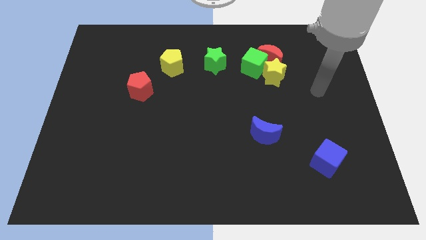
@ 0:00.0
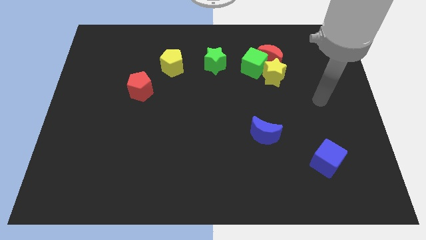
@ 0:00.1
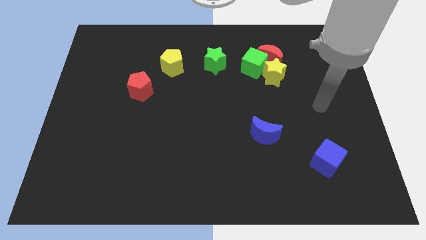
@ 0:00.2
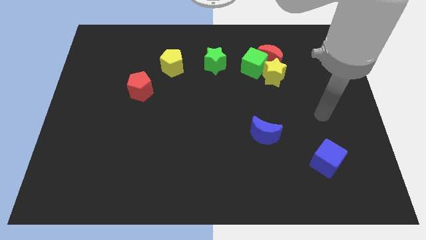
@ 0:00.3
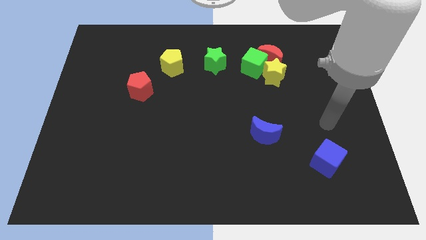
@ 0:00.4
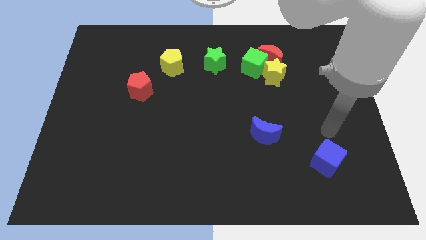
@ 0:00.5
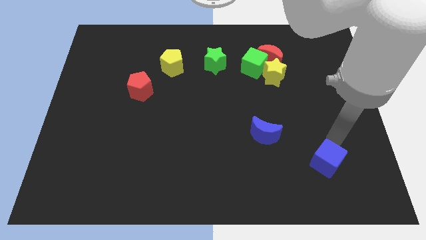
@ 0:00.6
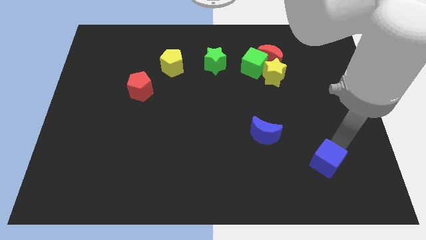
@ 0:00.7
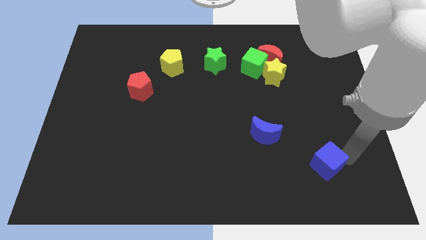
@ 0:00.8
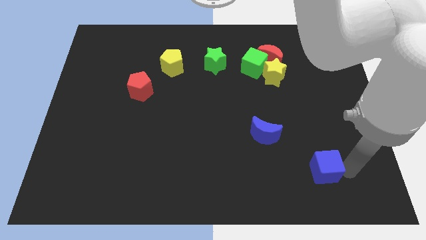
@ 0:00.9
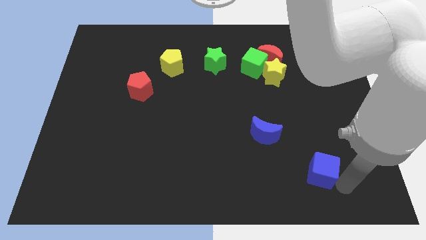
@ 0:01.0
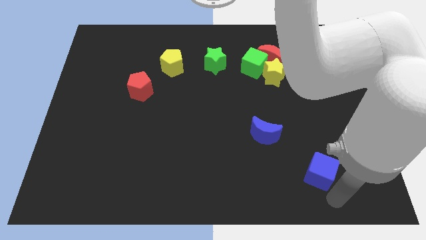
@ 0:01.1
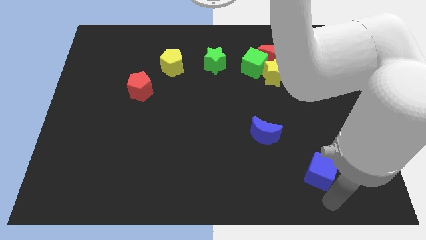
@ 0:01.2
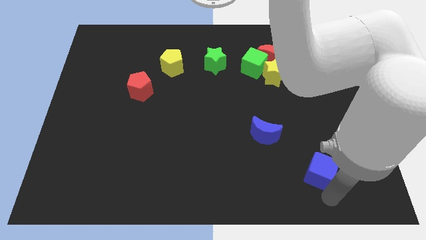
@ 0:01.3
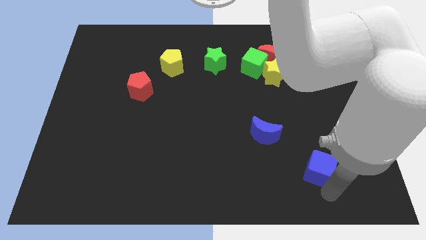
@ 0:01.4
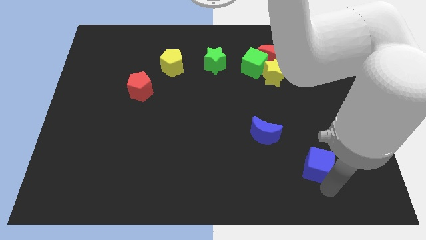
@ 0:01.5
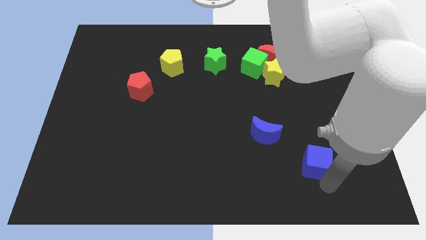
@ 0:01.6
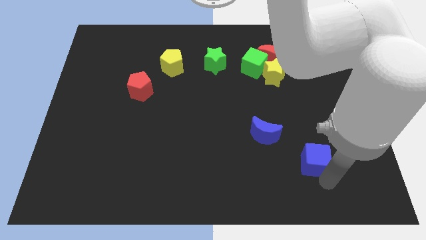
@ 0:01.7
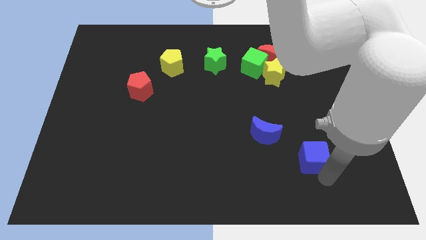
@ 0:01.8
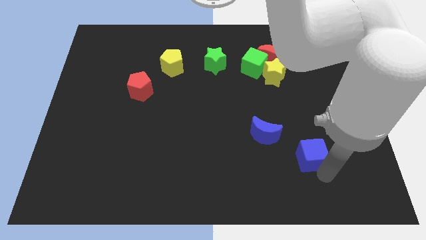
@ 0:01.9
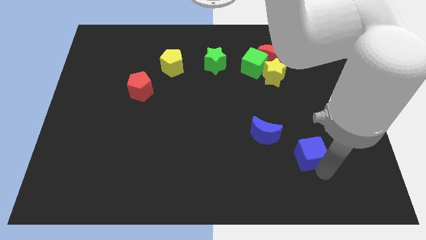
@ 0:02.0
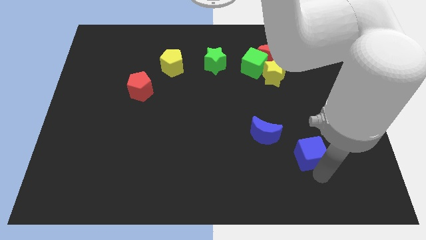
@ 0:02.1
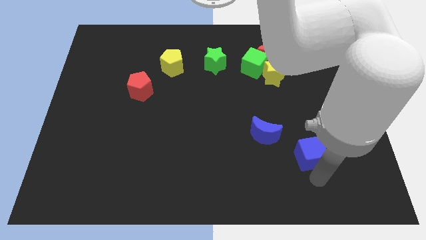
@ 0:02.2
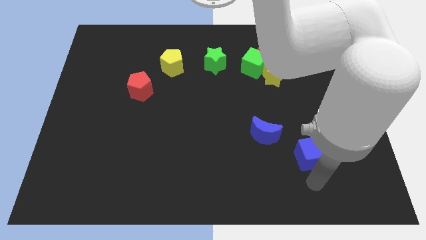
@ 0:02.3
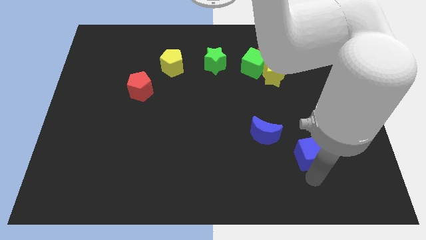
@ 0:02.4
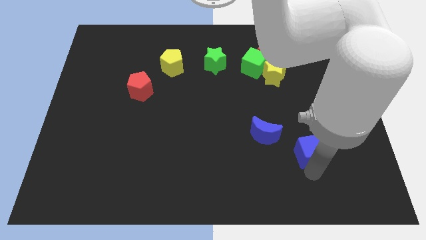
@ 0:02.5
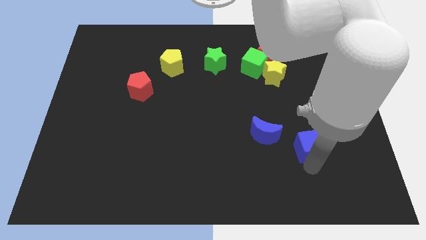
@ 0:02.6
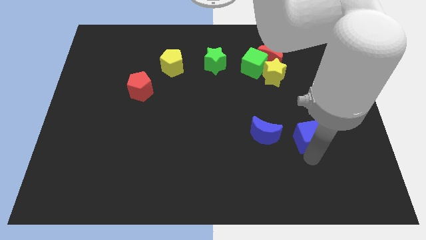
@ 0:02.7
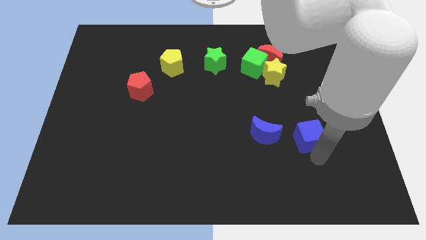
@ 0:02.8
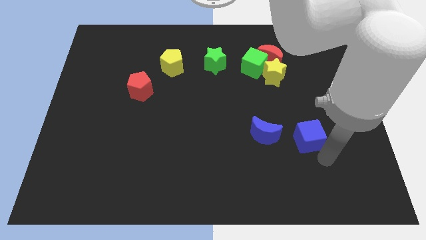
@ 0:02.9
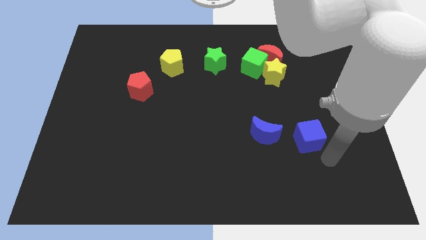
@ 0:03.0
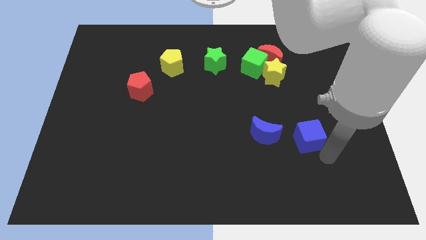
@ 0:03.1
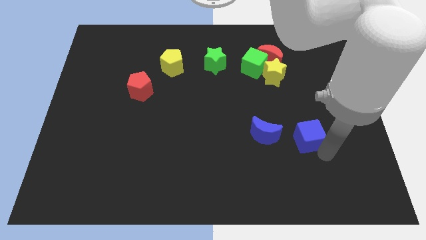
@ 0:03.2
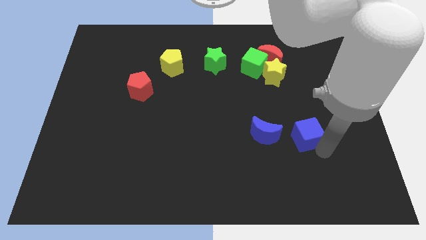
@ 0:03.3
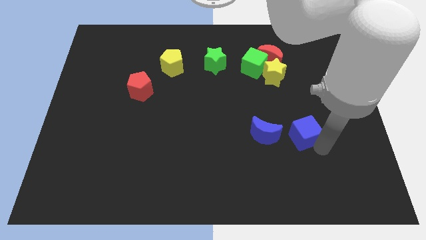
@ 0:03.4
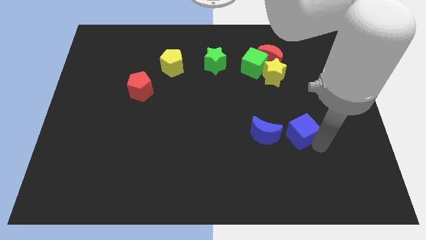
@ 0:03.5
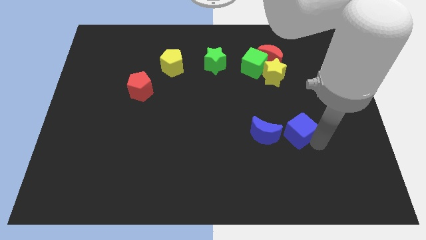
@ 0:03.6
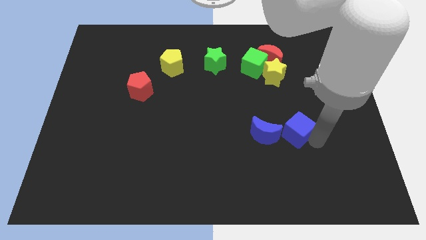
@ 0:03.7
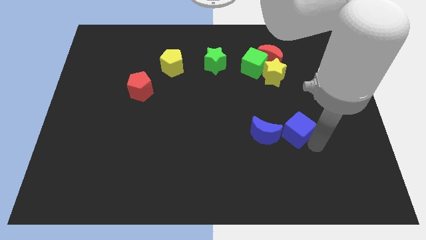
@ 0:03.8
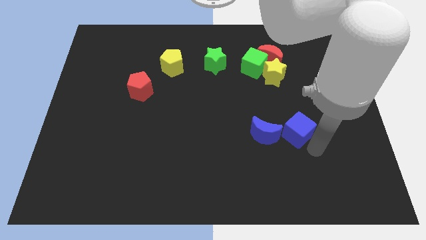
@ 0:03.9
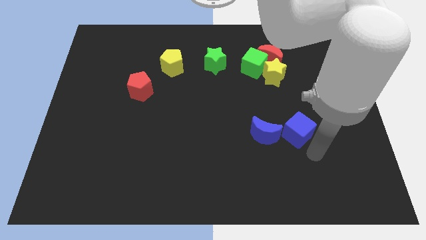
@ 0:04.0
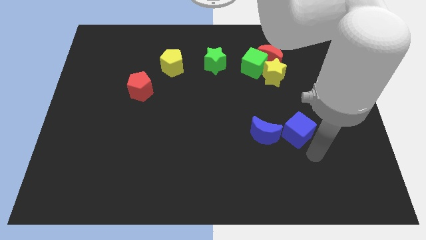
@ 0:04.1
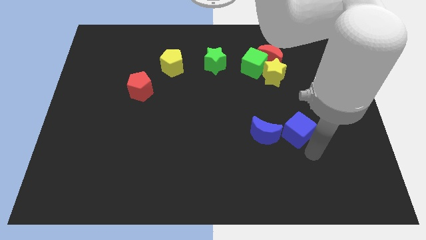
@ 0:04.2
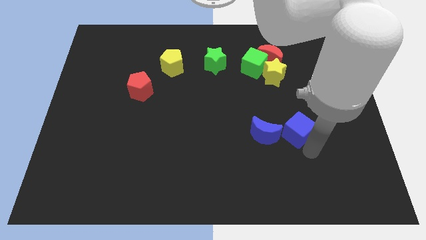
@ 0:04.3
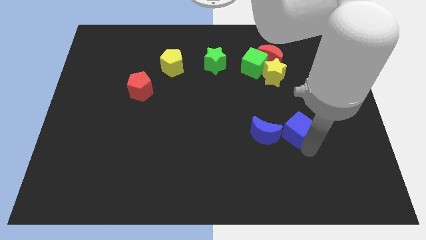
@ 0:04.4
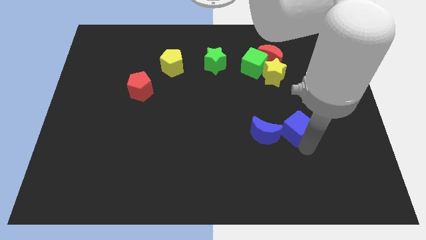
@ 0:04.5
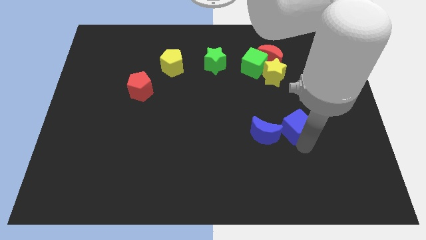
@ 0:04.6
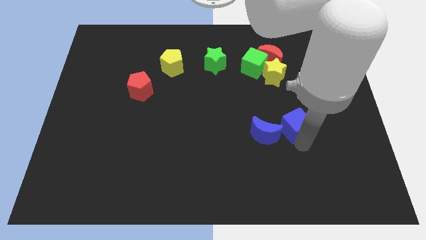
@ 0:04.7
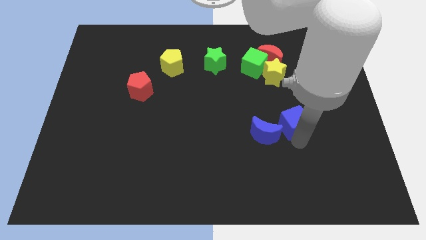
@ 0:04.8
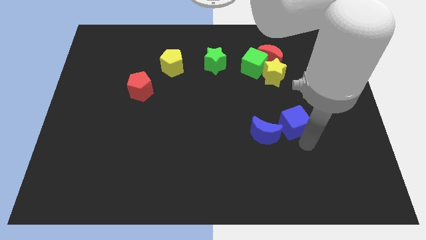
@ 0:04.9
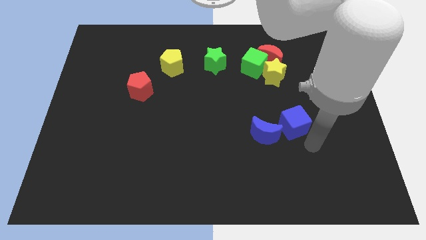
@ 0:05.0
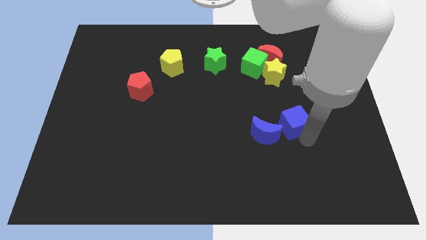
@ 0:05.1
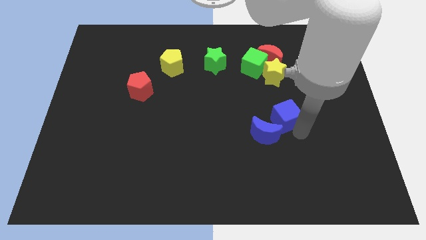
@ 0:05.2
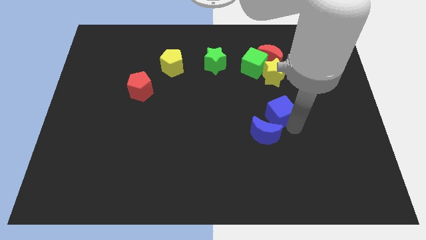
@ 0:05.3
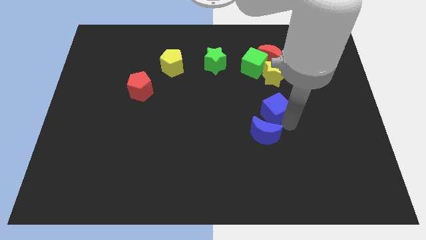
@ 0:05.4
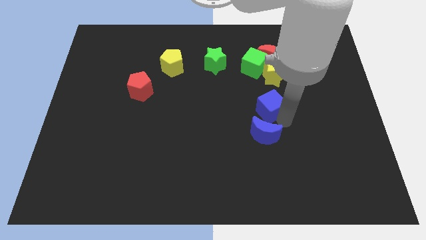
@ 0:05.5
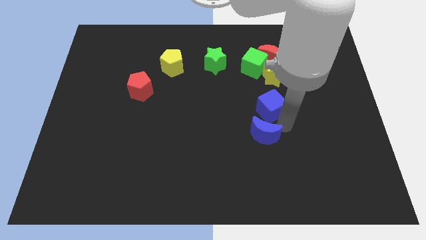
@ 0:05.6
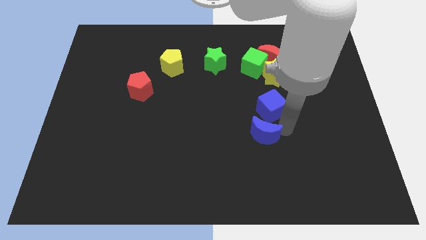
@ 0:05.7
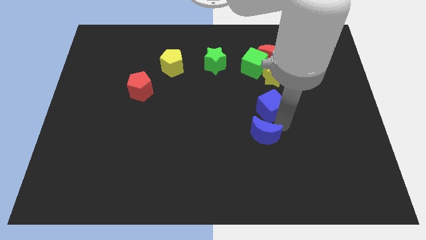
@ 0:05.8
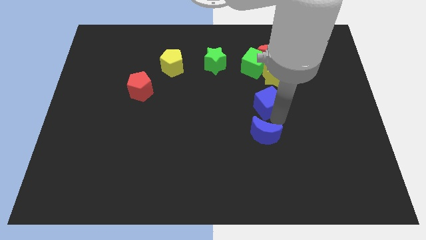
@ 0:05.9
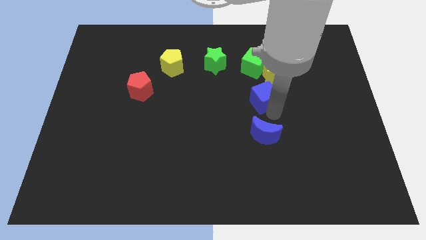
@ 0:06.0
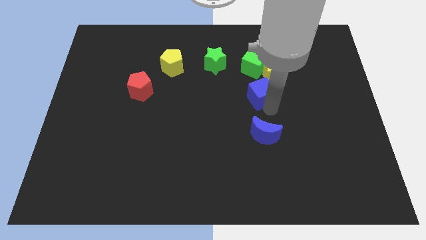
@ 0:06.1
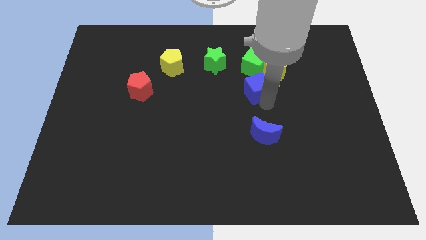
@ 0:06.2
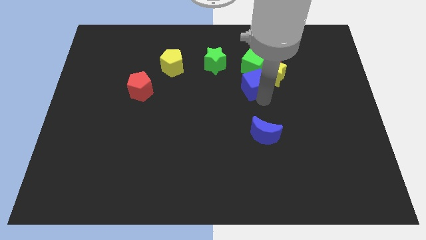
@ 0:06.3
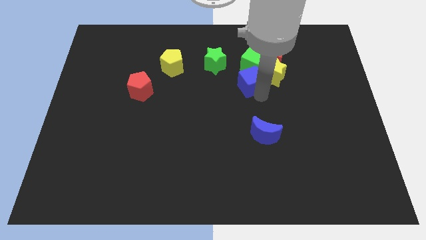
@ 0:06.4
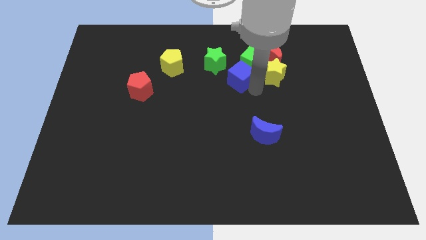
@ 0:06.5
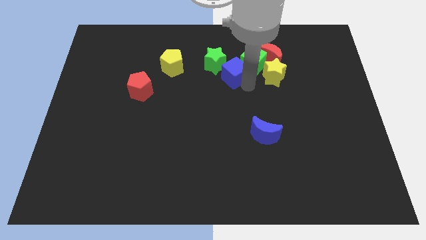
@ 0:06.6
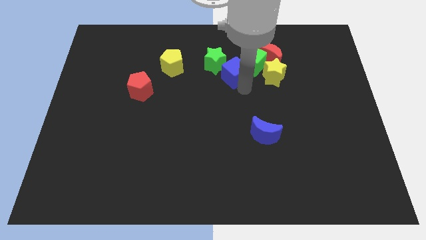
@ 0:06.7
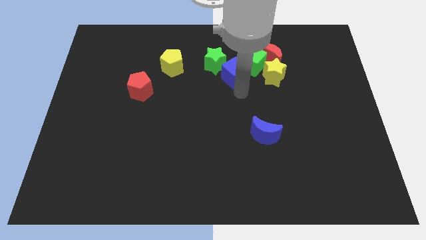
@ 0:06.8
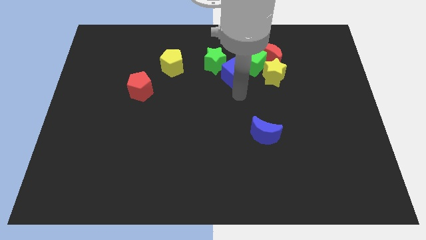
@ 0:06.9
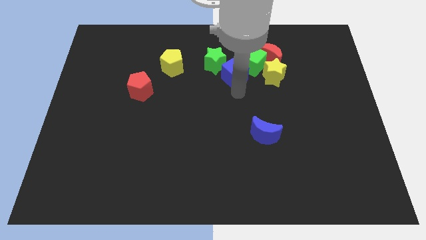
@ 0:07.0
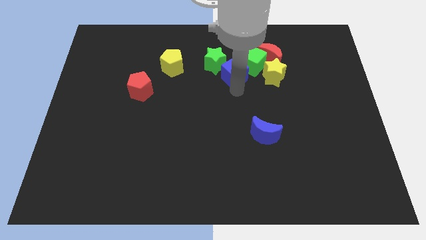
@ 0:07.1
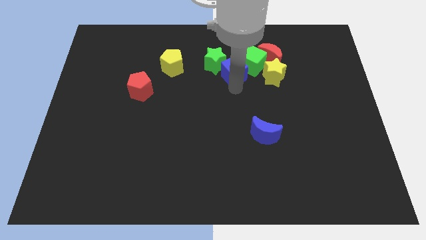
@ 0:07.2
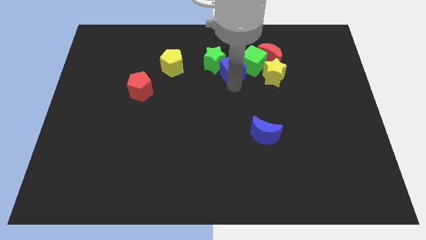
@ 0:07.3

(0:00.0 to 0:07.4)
push the blue cube just left of the red moon

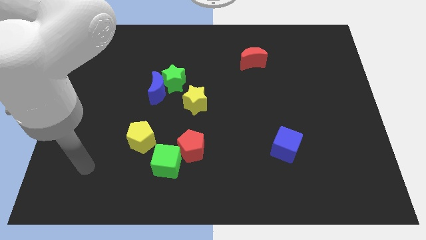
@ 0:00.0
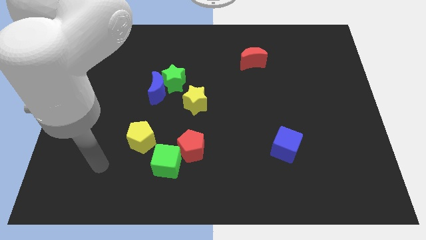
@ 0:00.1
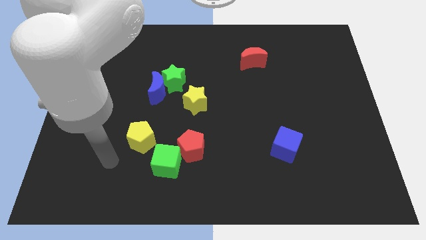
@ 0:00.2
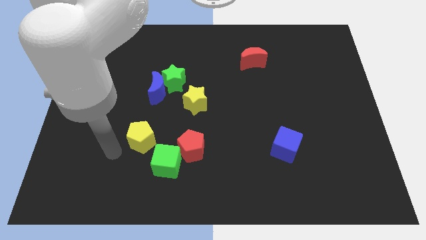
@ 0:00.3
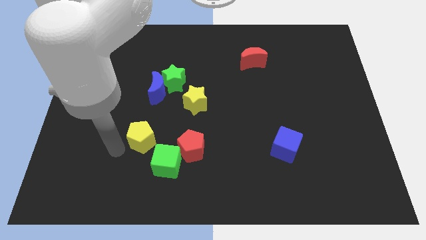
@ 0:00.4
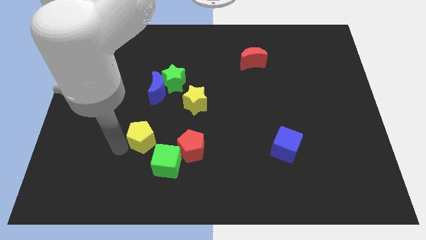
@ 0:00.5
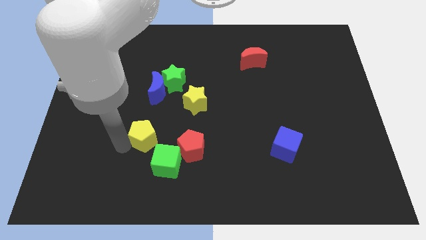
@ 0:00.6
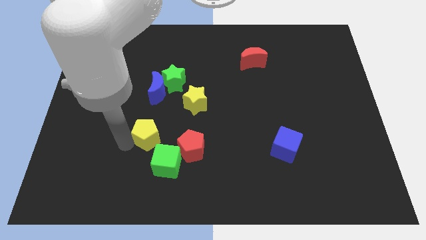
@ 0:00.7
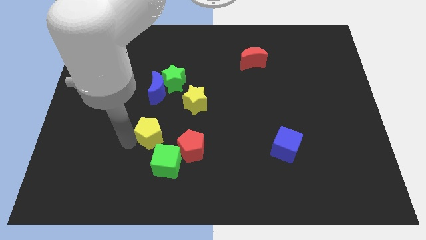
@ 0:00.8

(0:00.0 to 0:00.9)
slide the yellow pentagon to the top left side of the red pentagon
